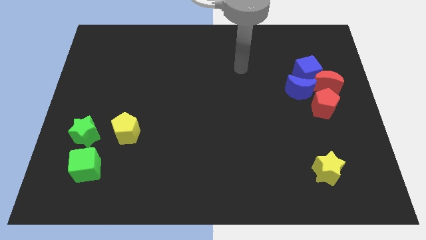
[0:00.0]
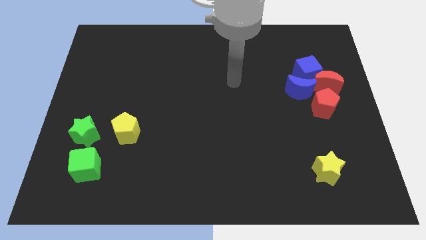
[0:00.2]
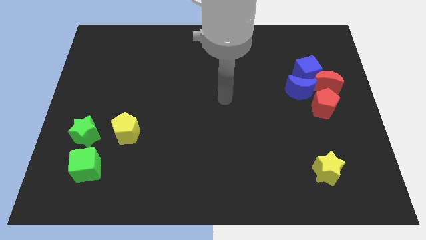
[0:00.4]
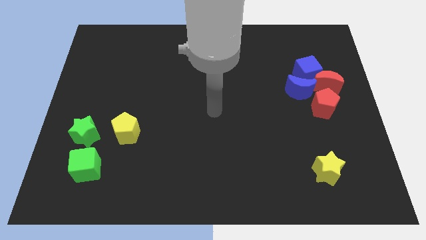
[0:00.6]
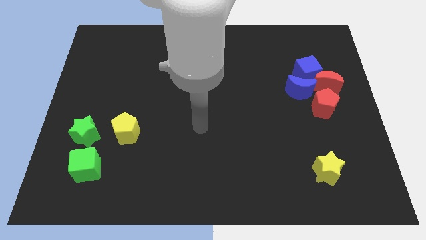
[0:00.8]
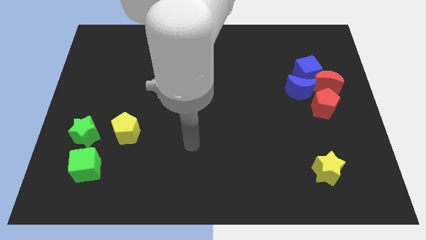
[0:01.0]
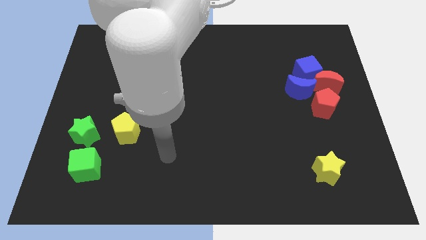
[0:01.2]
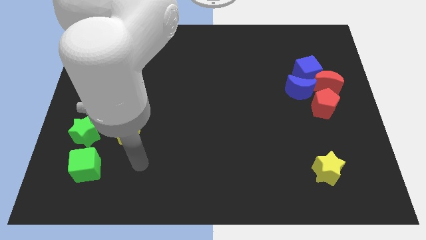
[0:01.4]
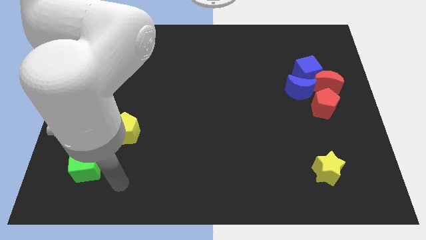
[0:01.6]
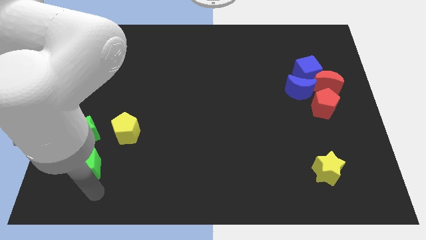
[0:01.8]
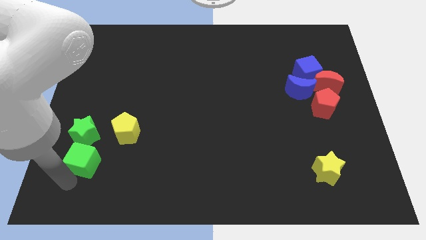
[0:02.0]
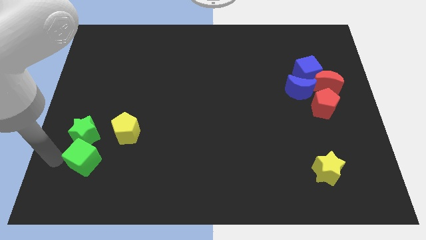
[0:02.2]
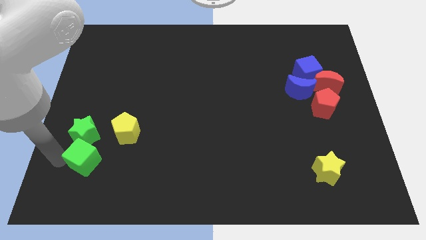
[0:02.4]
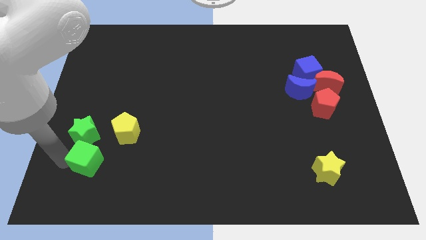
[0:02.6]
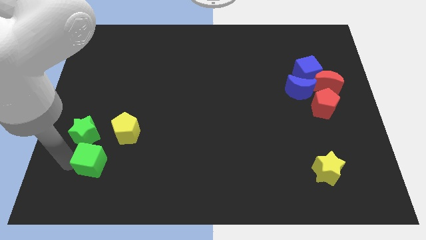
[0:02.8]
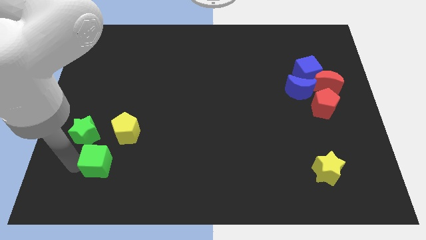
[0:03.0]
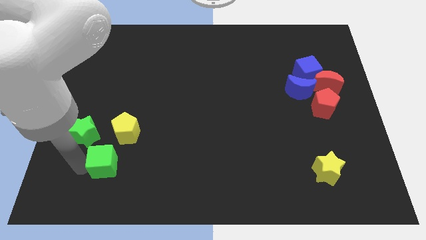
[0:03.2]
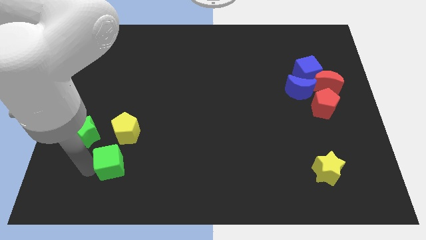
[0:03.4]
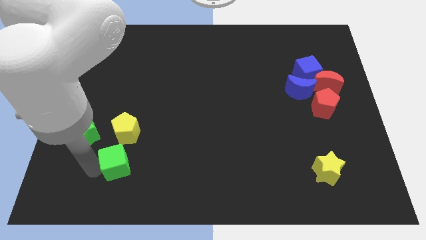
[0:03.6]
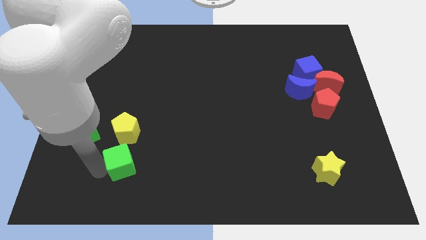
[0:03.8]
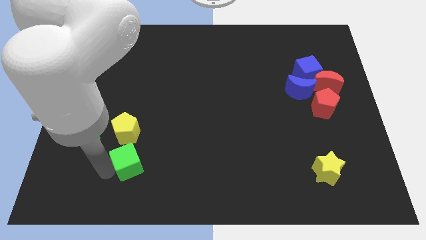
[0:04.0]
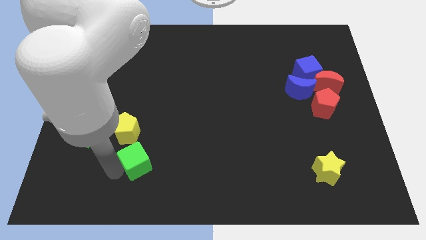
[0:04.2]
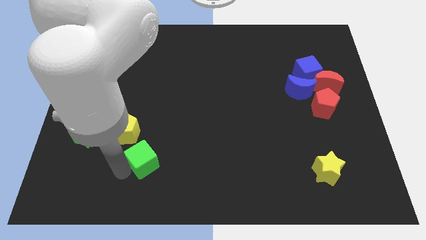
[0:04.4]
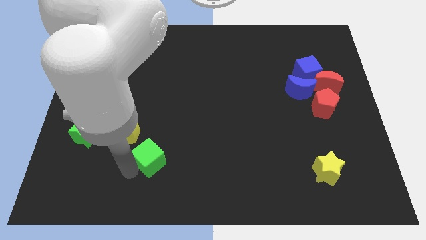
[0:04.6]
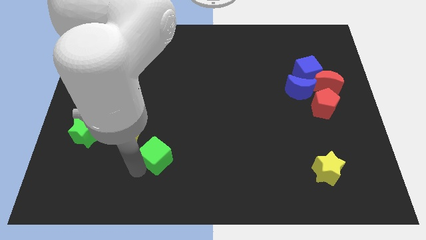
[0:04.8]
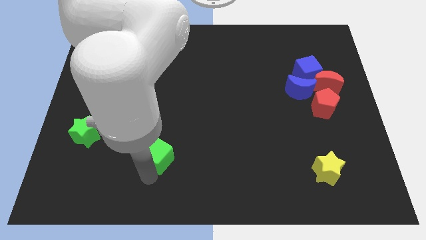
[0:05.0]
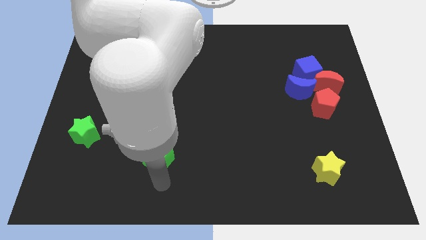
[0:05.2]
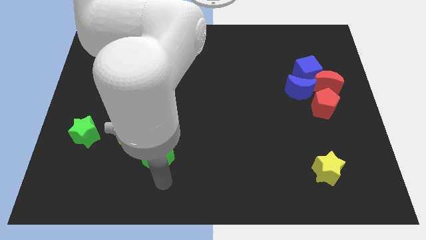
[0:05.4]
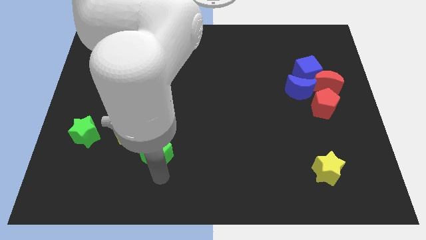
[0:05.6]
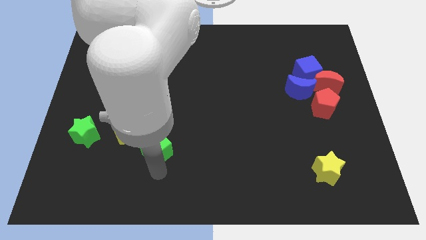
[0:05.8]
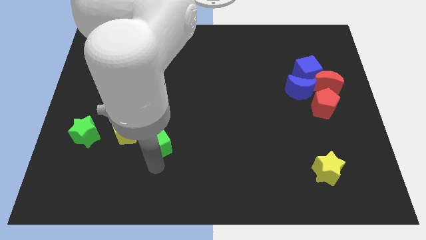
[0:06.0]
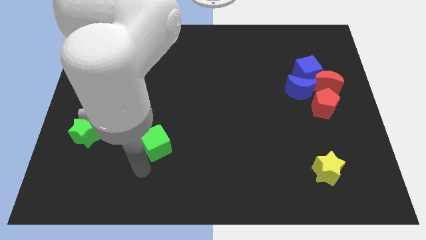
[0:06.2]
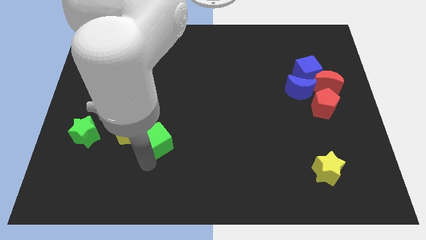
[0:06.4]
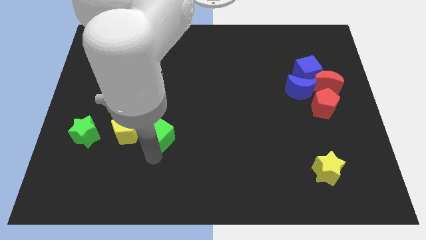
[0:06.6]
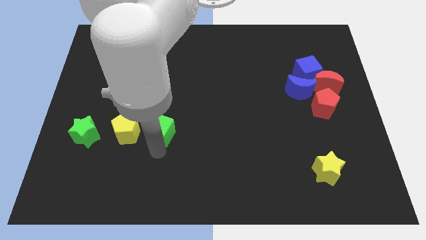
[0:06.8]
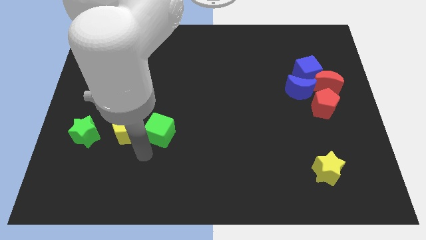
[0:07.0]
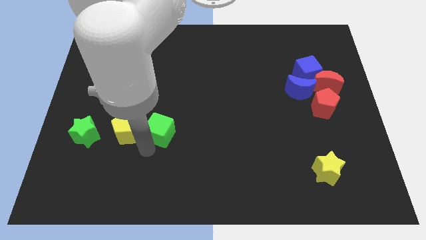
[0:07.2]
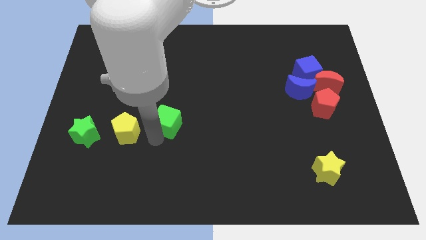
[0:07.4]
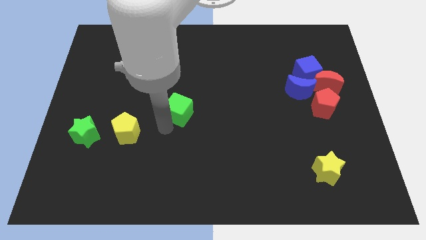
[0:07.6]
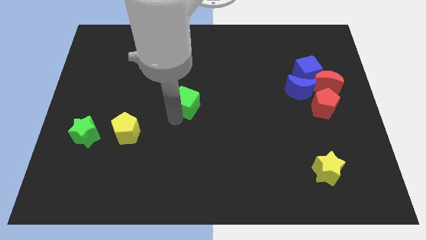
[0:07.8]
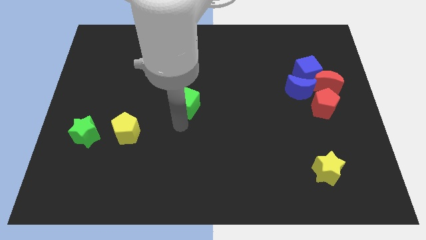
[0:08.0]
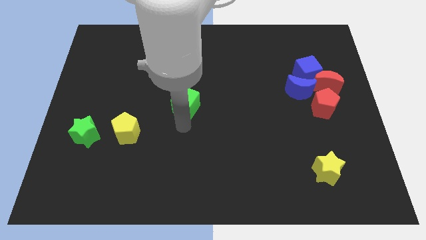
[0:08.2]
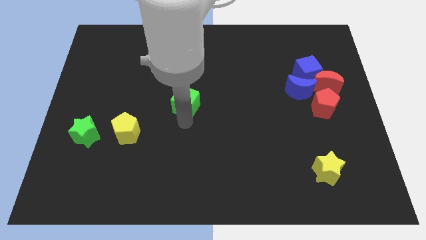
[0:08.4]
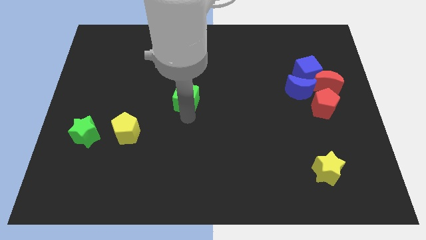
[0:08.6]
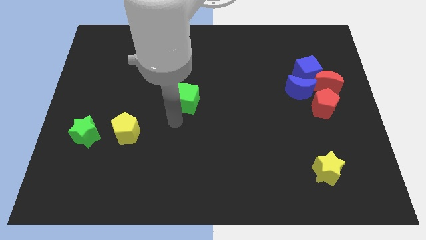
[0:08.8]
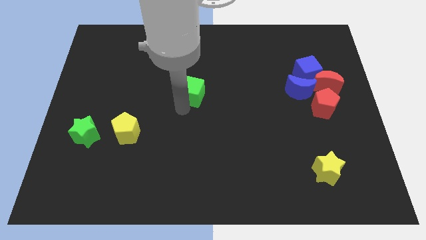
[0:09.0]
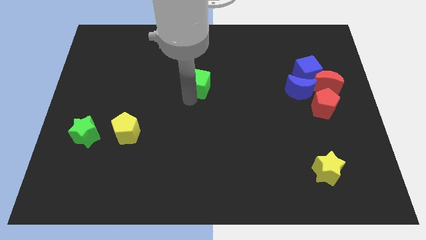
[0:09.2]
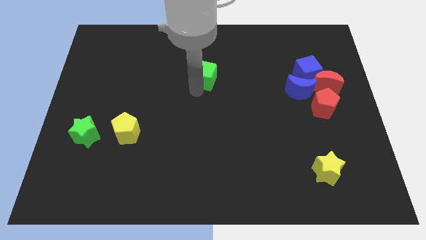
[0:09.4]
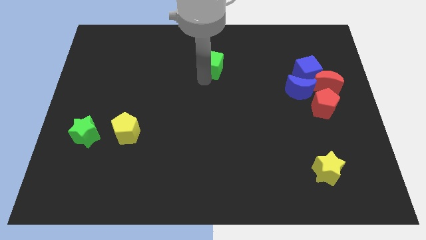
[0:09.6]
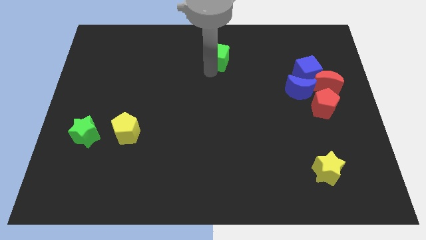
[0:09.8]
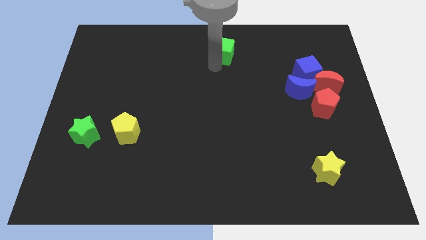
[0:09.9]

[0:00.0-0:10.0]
slide the green cube to the top side
